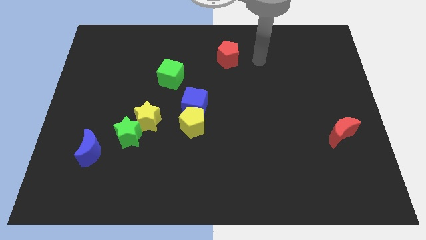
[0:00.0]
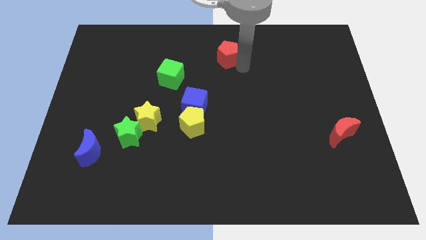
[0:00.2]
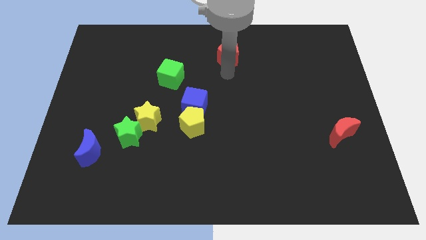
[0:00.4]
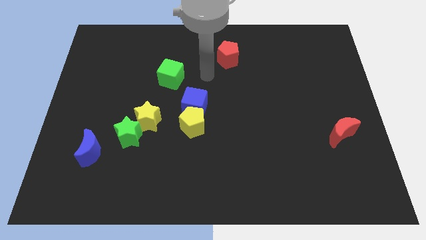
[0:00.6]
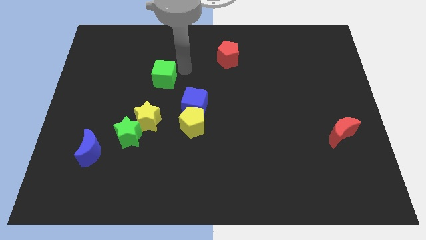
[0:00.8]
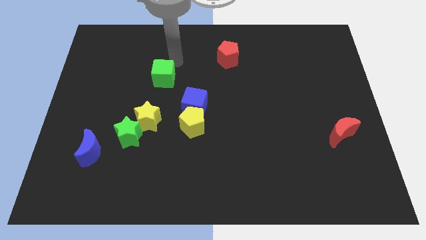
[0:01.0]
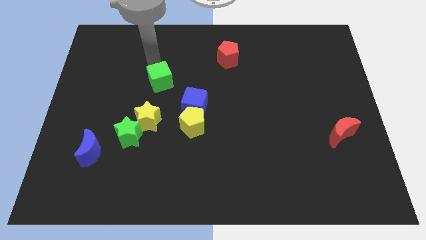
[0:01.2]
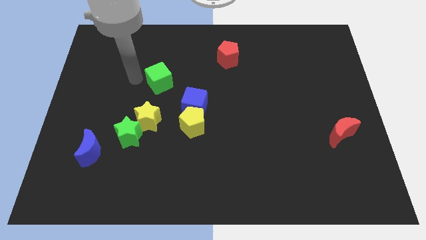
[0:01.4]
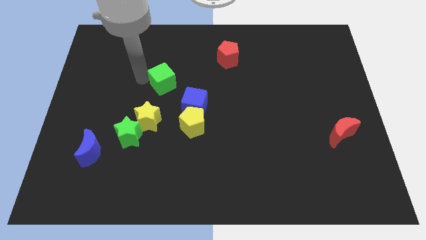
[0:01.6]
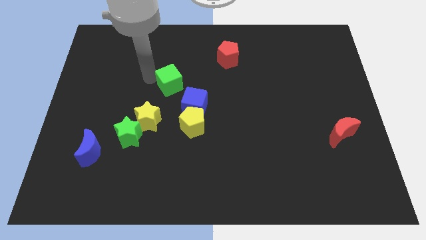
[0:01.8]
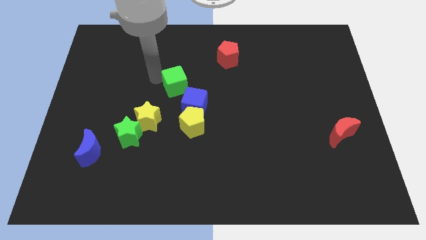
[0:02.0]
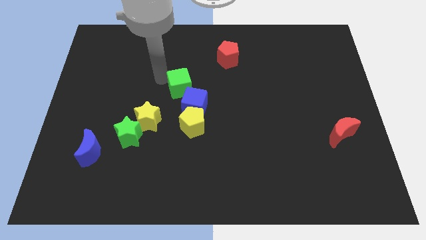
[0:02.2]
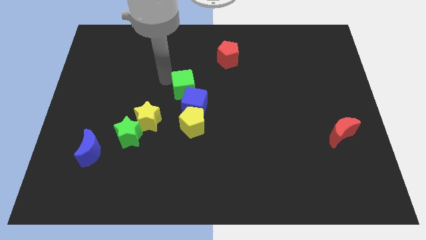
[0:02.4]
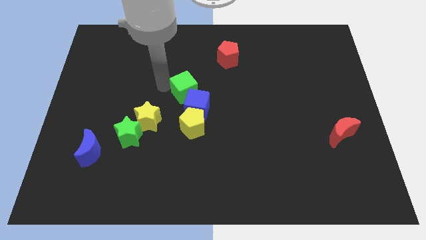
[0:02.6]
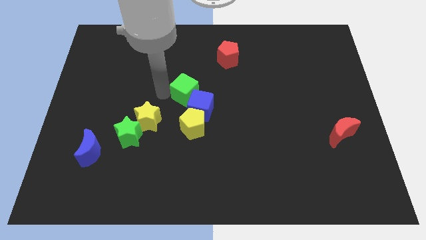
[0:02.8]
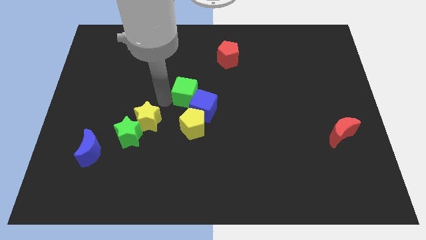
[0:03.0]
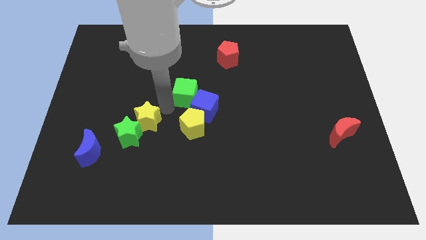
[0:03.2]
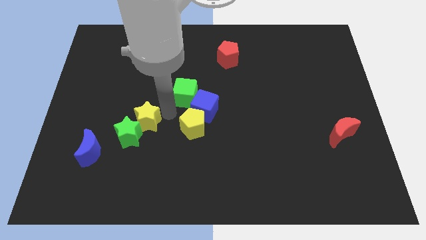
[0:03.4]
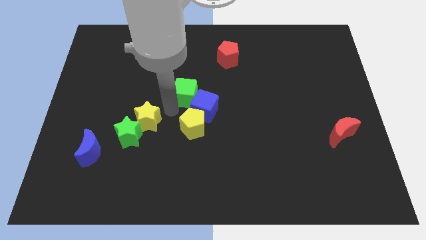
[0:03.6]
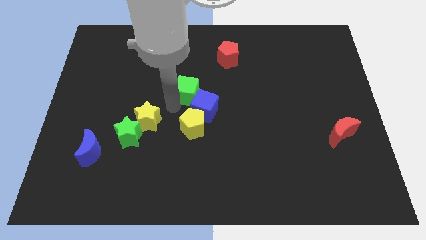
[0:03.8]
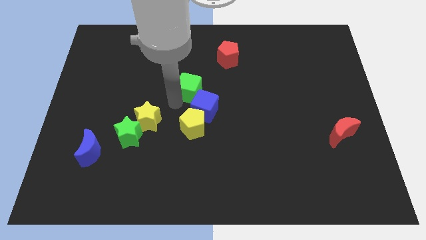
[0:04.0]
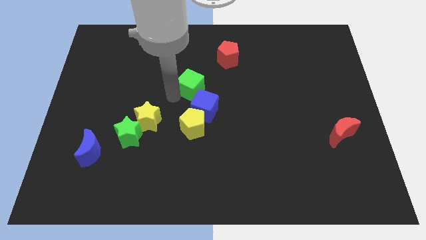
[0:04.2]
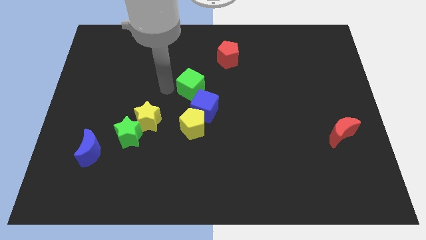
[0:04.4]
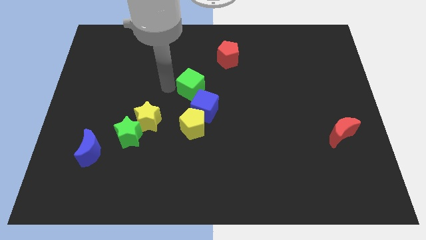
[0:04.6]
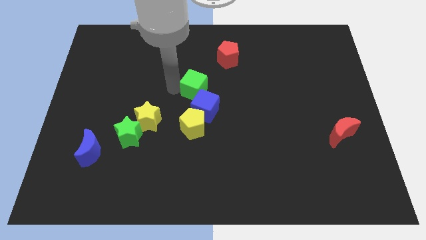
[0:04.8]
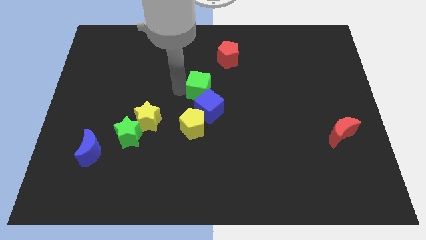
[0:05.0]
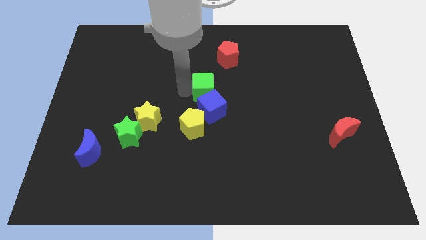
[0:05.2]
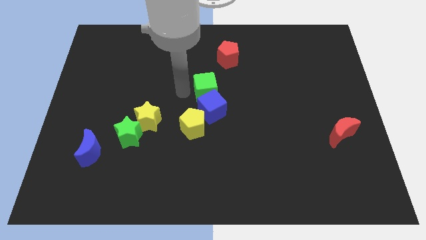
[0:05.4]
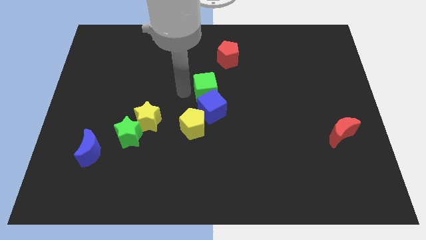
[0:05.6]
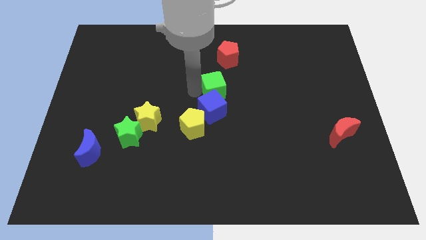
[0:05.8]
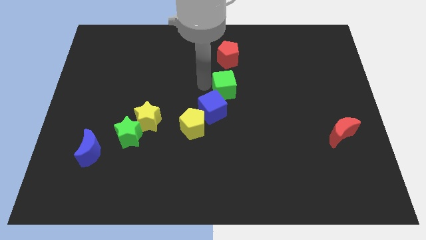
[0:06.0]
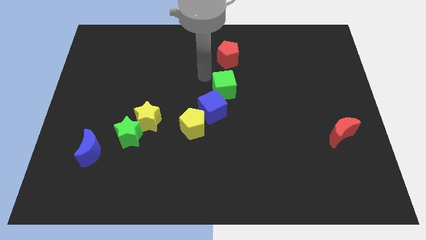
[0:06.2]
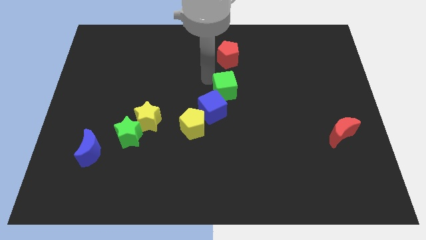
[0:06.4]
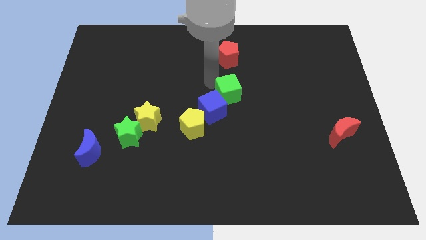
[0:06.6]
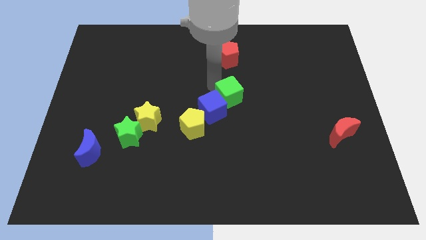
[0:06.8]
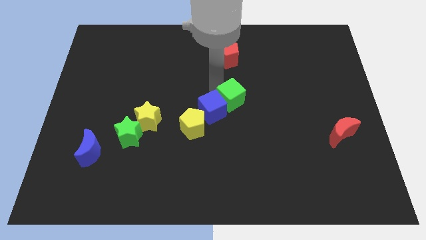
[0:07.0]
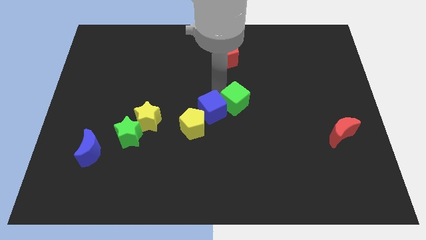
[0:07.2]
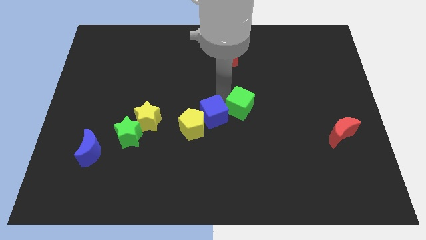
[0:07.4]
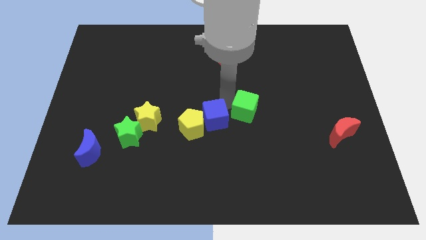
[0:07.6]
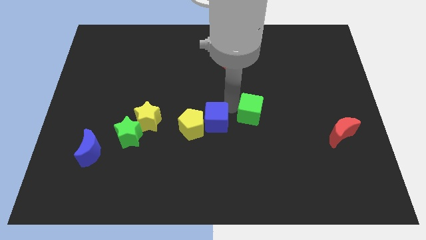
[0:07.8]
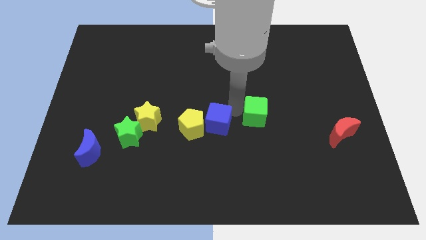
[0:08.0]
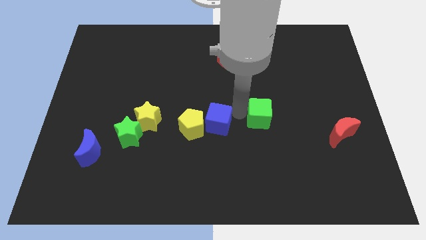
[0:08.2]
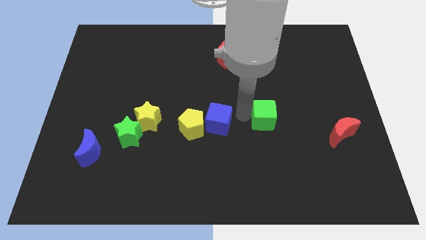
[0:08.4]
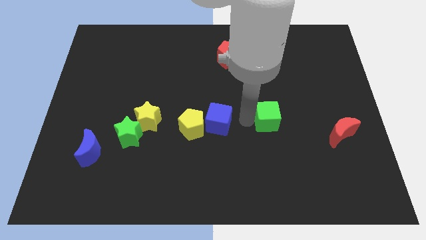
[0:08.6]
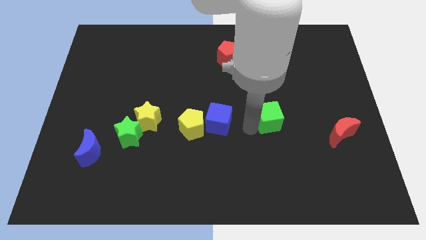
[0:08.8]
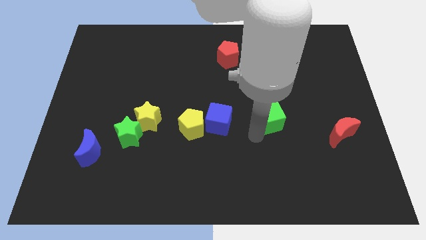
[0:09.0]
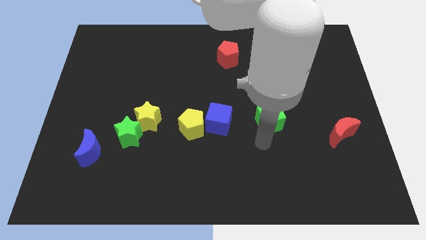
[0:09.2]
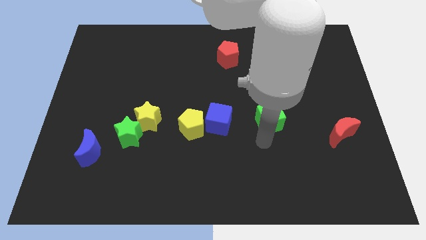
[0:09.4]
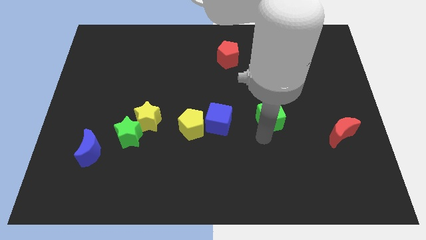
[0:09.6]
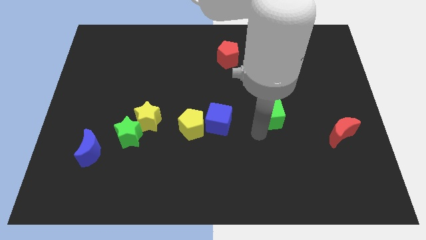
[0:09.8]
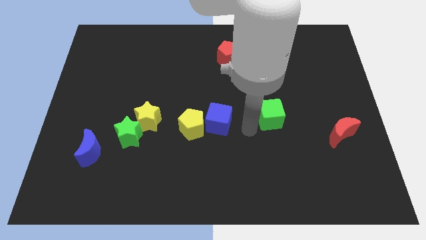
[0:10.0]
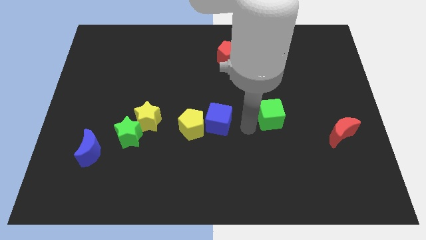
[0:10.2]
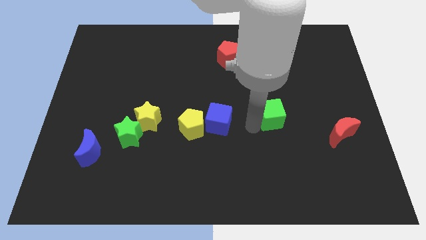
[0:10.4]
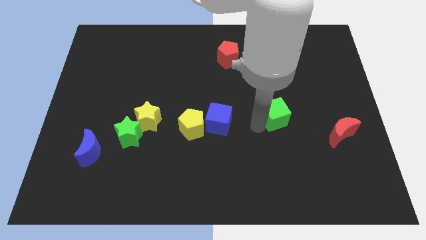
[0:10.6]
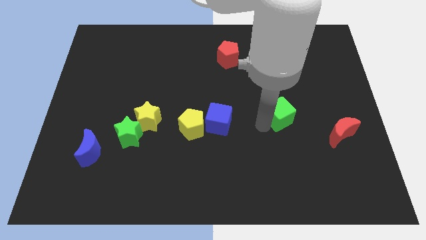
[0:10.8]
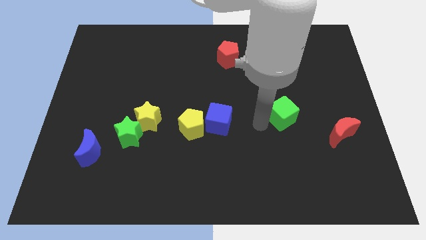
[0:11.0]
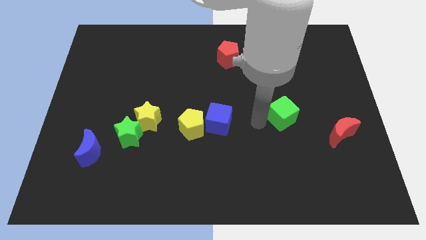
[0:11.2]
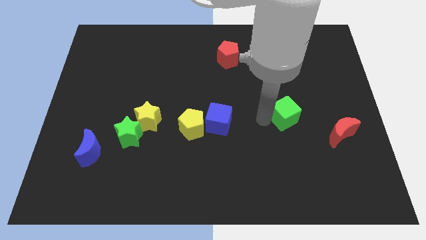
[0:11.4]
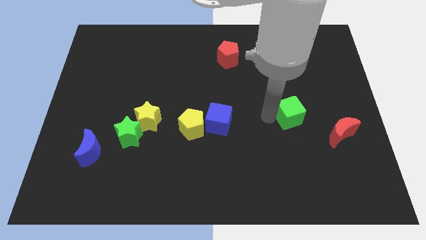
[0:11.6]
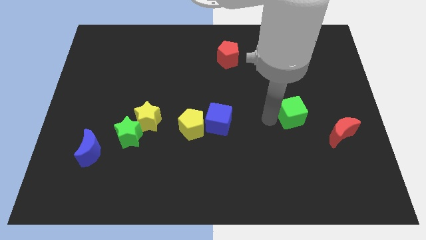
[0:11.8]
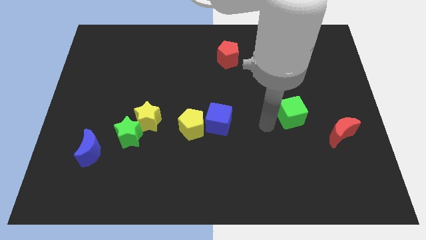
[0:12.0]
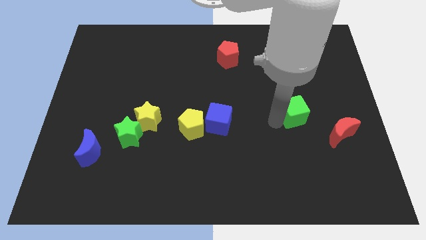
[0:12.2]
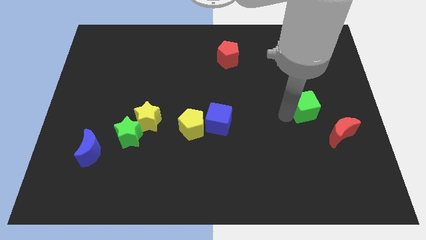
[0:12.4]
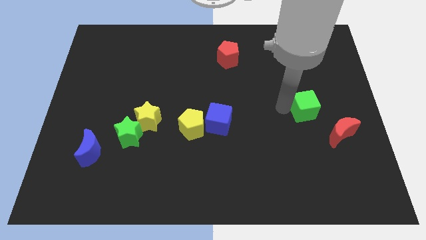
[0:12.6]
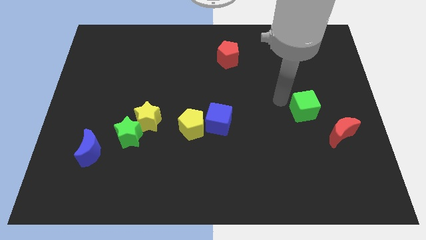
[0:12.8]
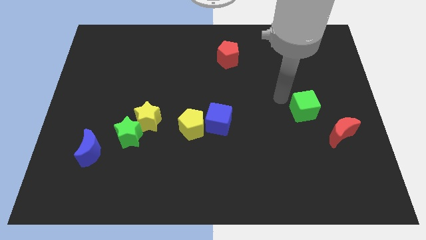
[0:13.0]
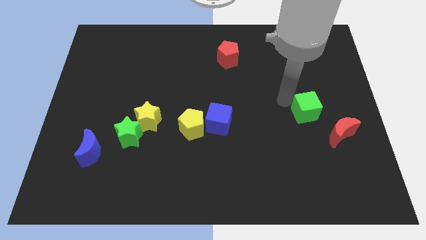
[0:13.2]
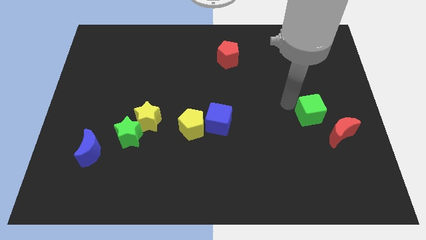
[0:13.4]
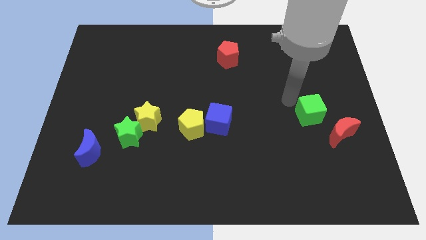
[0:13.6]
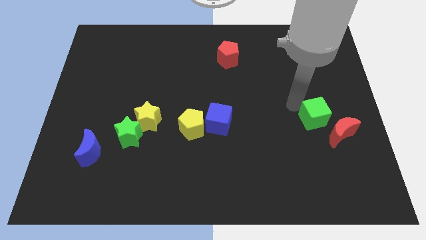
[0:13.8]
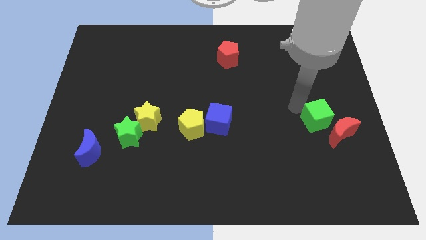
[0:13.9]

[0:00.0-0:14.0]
slide the green cube close to the red moon

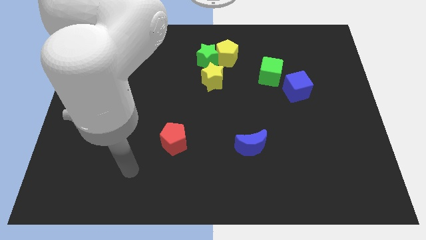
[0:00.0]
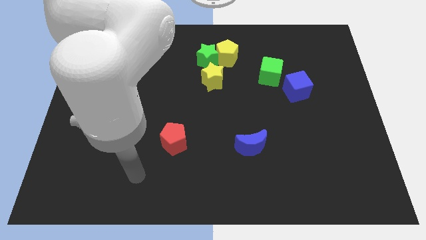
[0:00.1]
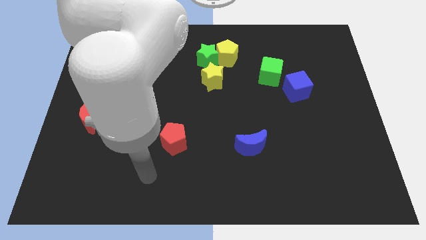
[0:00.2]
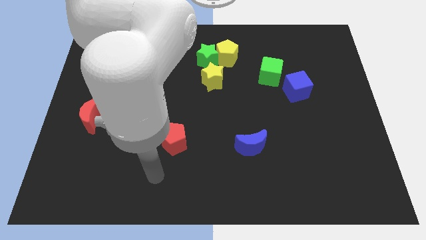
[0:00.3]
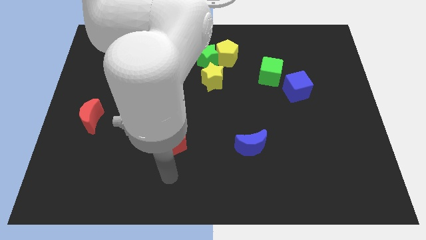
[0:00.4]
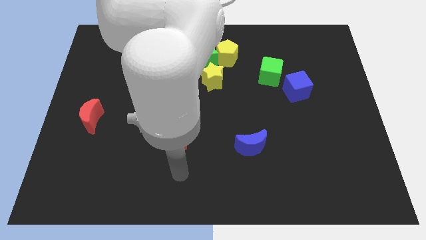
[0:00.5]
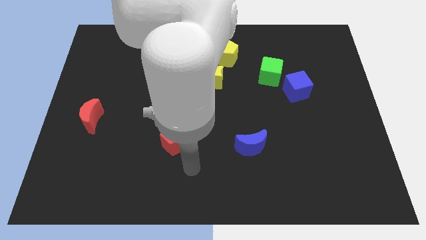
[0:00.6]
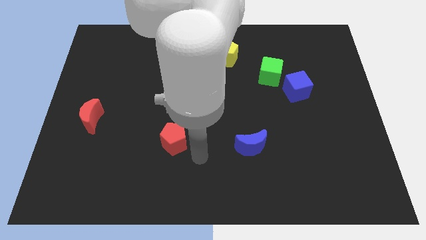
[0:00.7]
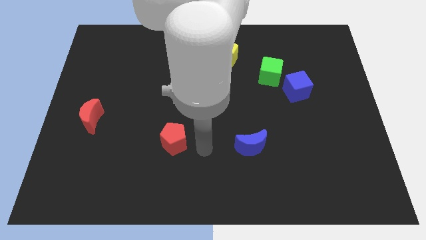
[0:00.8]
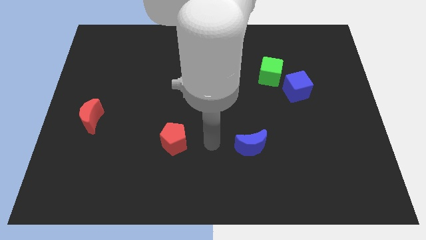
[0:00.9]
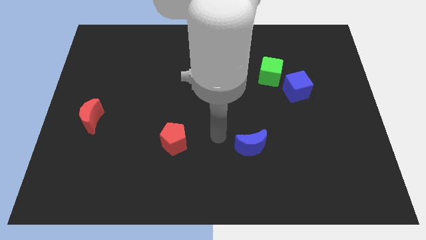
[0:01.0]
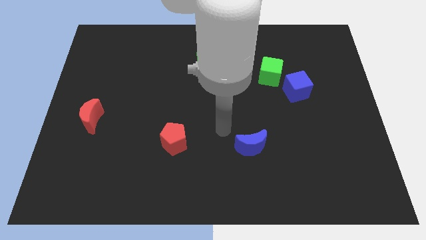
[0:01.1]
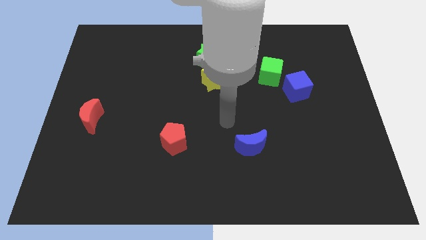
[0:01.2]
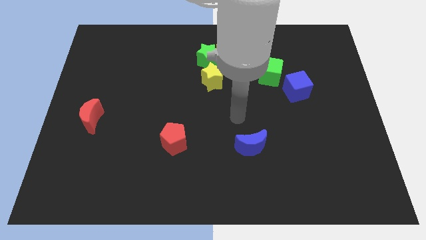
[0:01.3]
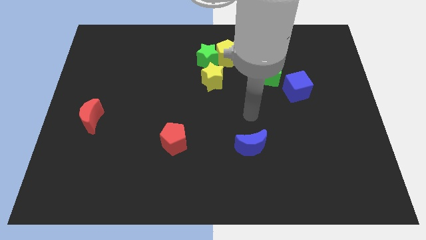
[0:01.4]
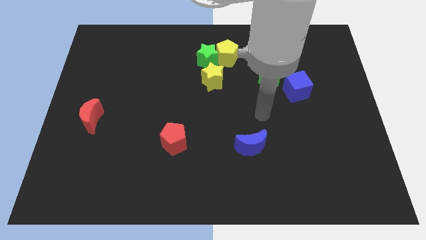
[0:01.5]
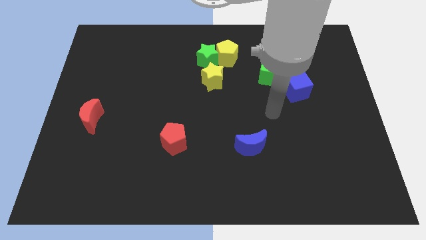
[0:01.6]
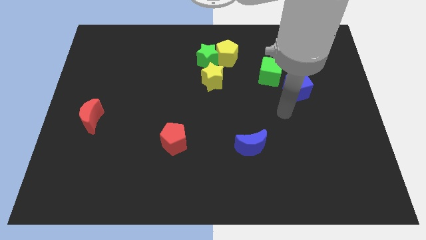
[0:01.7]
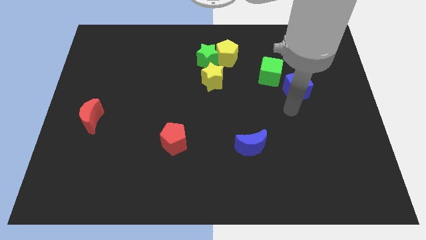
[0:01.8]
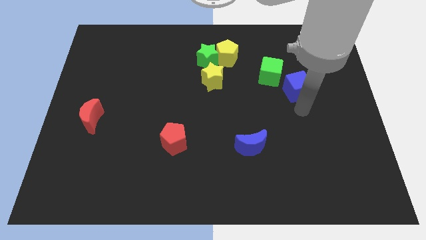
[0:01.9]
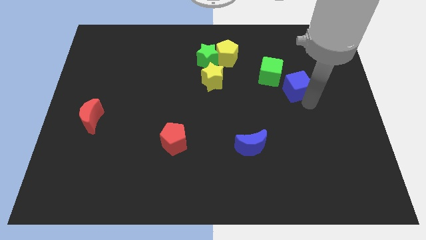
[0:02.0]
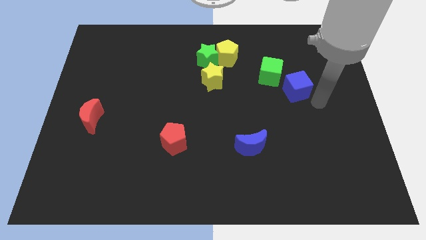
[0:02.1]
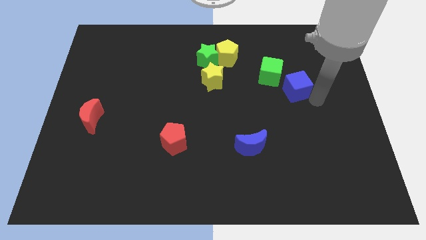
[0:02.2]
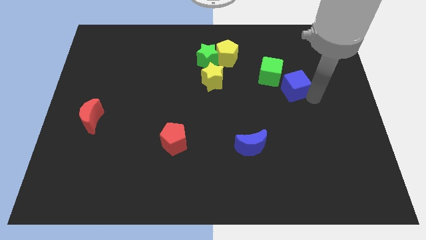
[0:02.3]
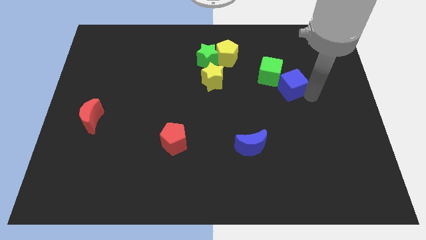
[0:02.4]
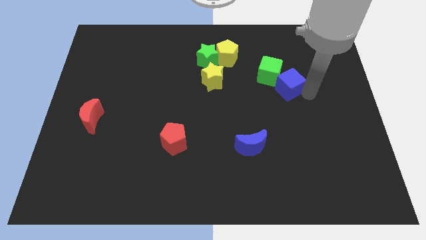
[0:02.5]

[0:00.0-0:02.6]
put the blue cube towards the green cube
